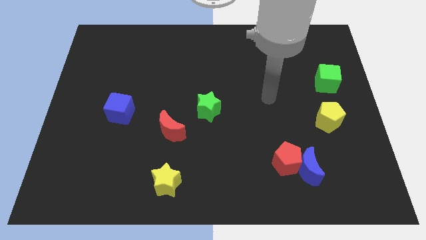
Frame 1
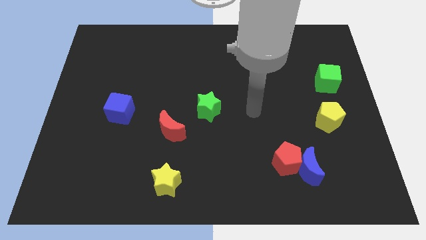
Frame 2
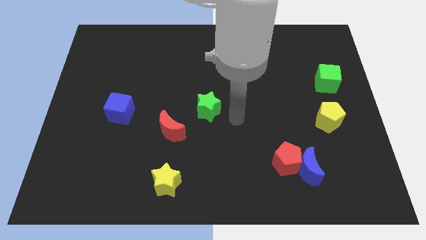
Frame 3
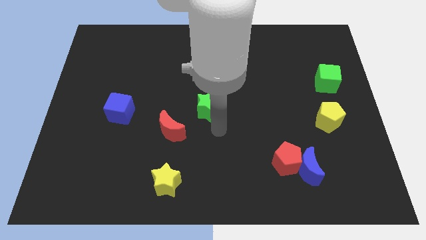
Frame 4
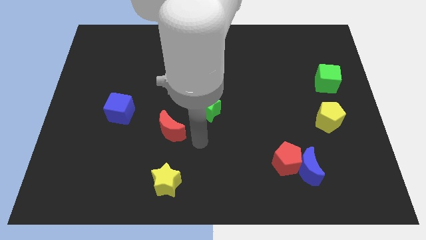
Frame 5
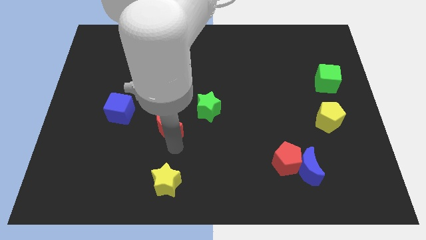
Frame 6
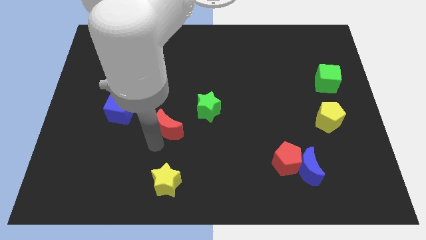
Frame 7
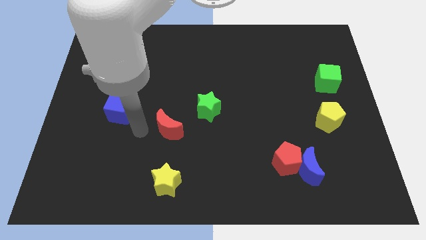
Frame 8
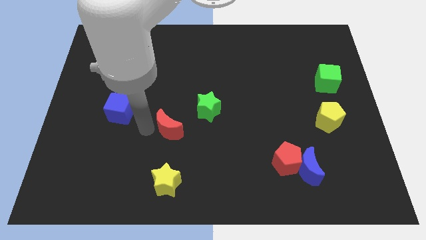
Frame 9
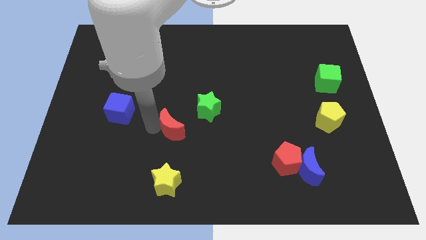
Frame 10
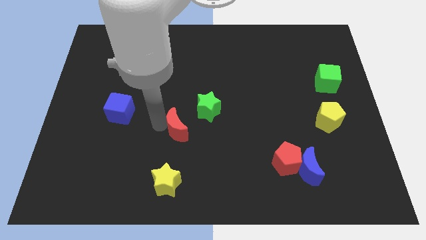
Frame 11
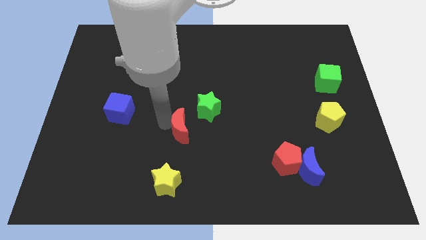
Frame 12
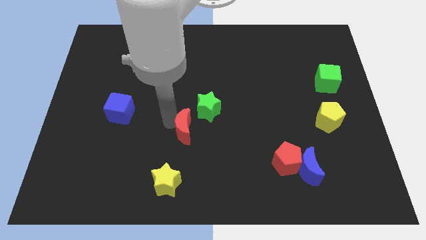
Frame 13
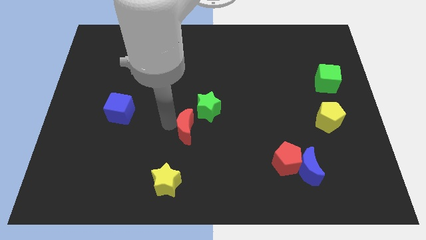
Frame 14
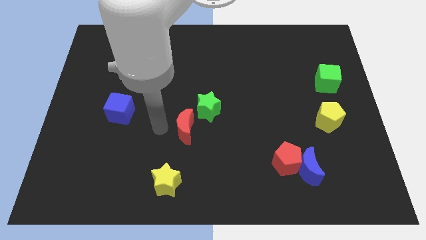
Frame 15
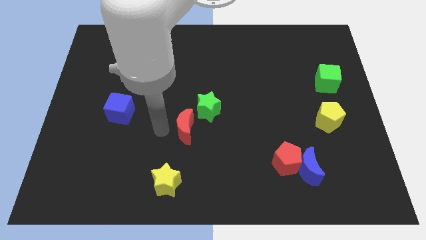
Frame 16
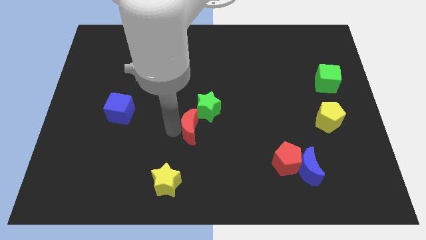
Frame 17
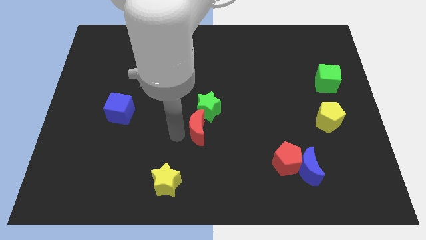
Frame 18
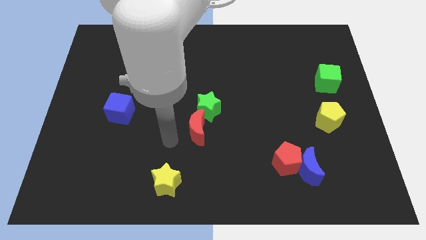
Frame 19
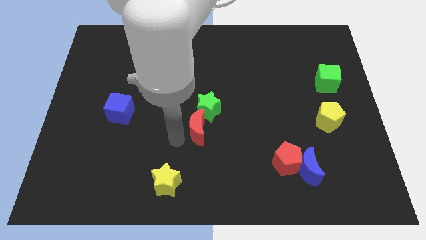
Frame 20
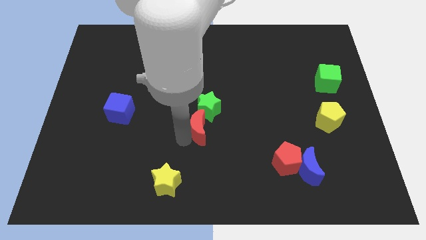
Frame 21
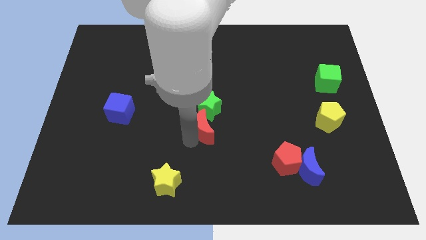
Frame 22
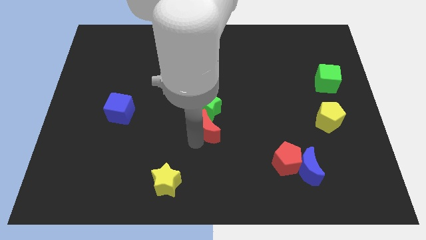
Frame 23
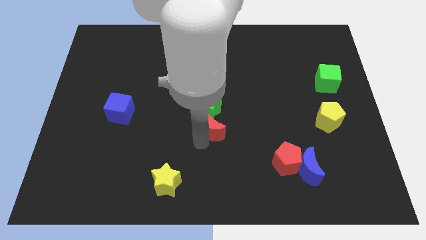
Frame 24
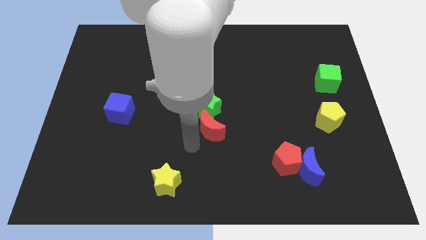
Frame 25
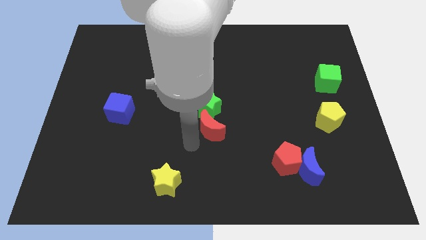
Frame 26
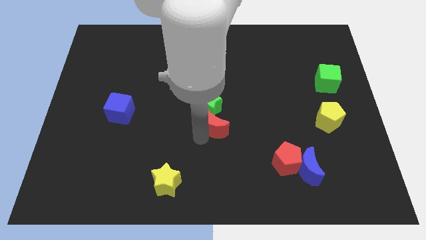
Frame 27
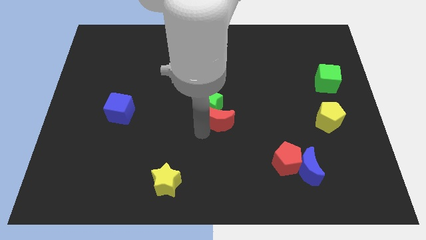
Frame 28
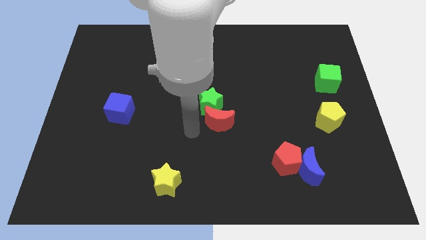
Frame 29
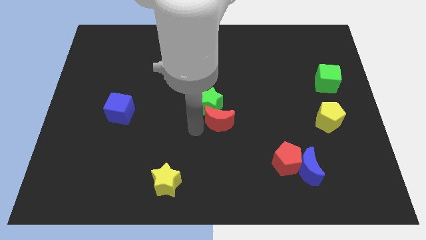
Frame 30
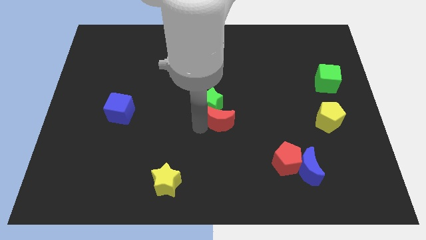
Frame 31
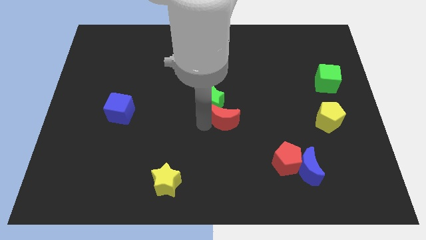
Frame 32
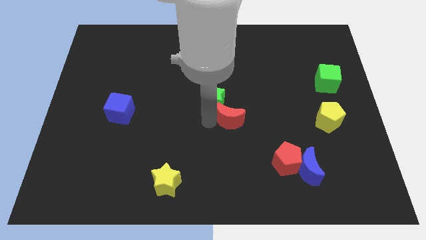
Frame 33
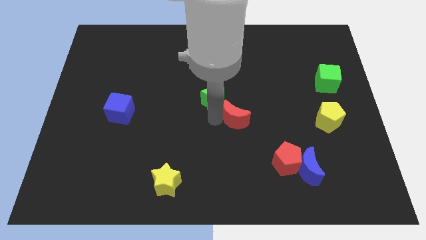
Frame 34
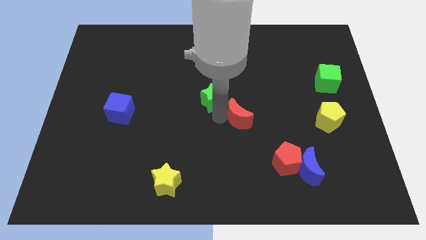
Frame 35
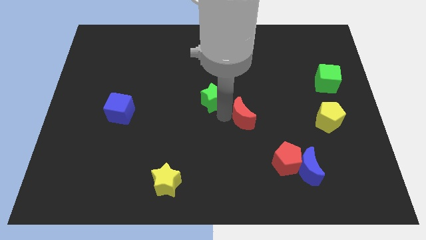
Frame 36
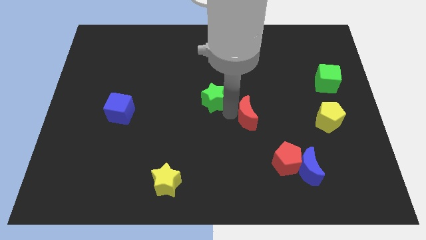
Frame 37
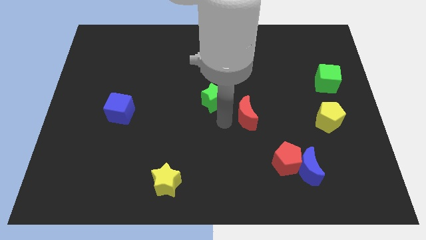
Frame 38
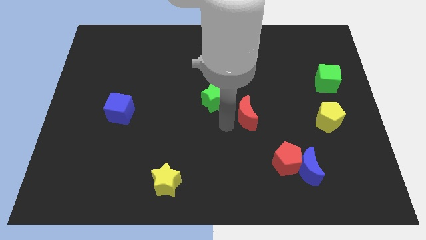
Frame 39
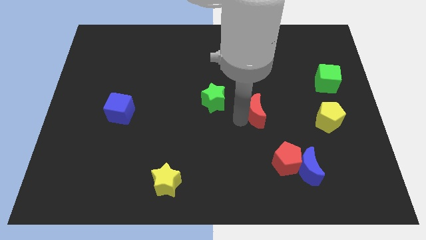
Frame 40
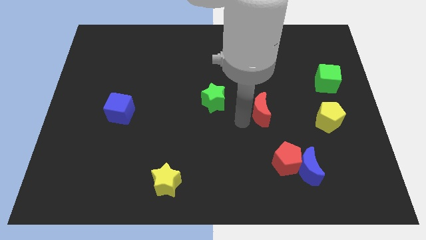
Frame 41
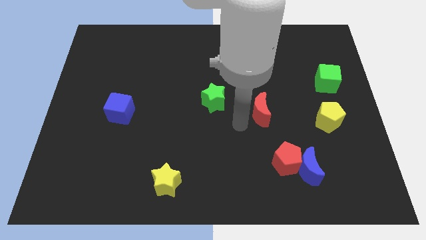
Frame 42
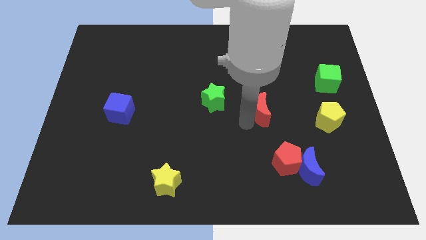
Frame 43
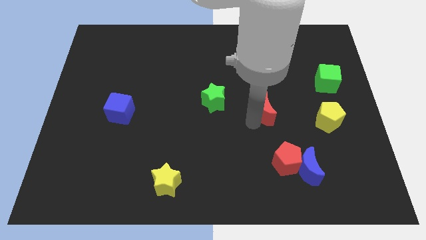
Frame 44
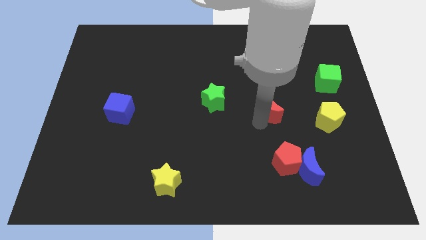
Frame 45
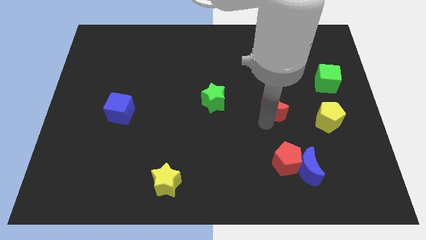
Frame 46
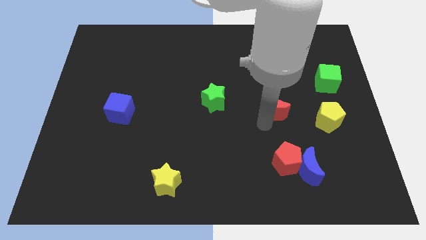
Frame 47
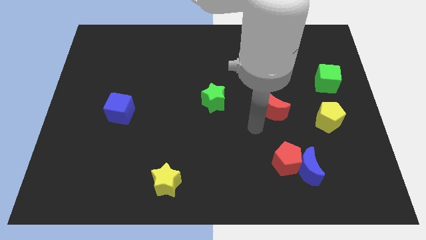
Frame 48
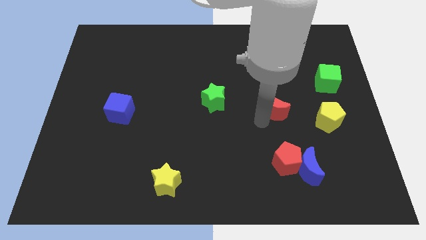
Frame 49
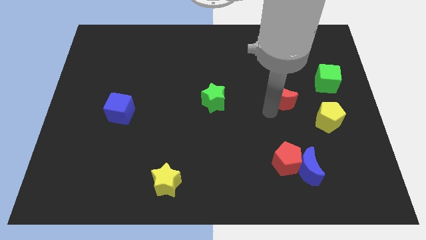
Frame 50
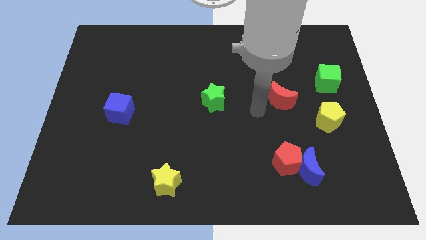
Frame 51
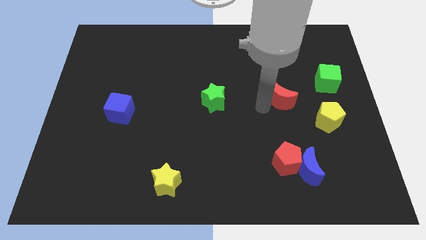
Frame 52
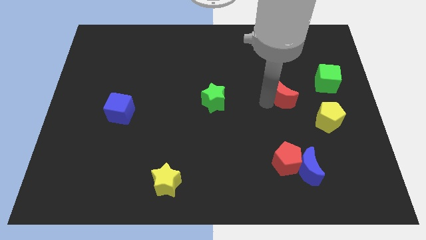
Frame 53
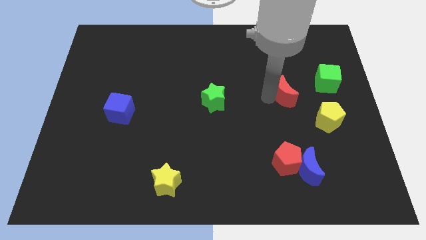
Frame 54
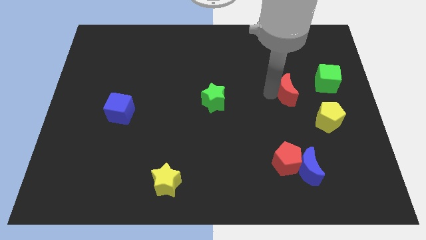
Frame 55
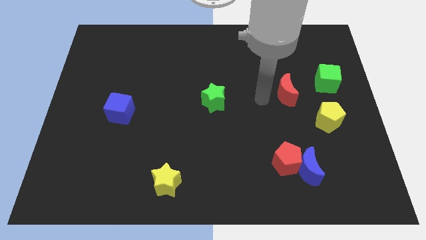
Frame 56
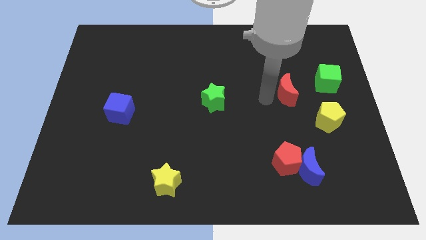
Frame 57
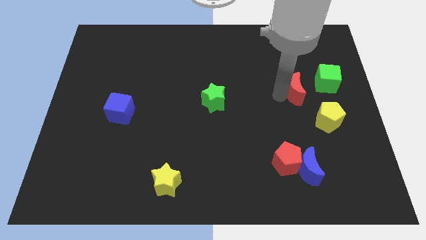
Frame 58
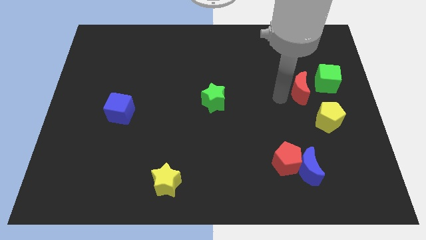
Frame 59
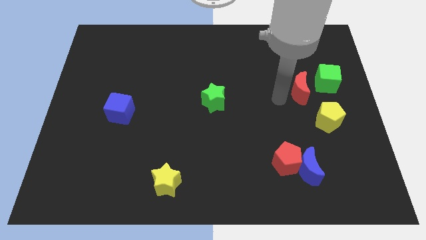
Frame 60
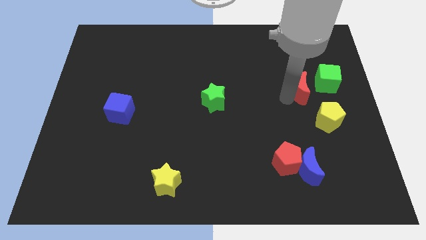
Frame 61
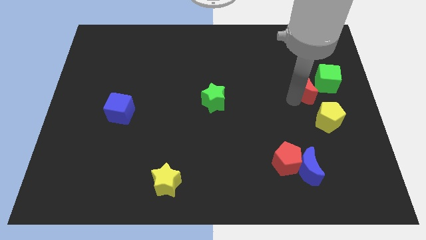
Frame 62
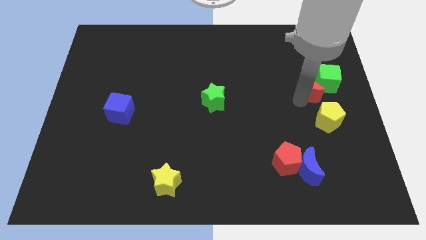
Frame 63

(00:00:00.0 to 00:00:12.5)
push the red moon close to the green cube

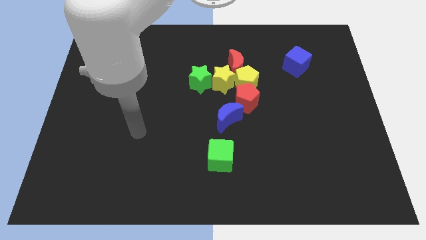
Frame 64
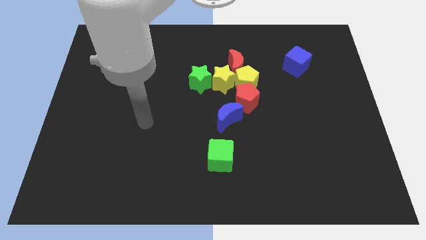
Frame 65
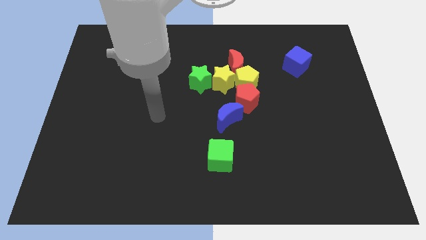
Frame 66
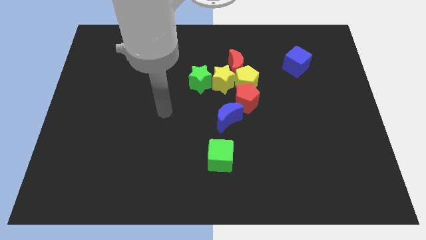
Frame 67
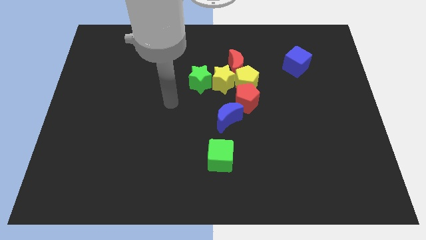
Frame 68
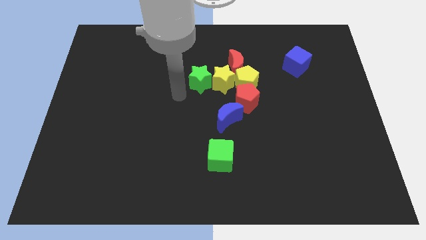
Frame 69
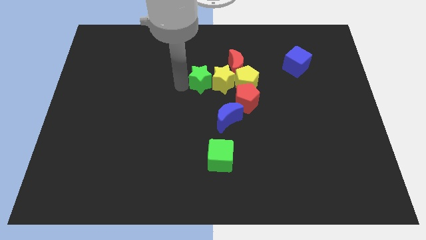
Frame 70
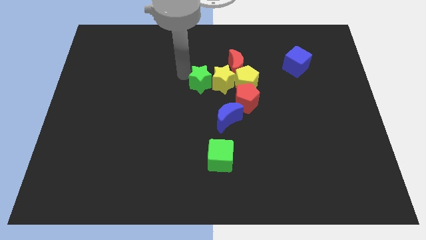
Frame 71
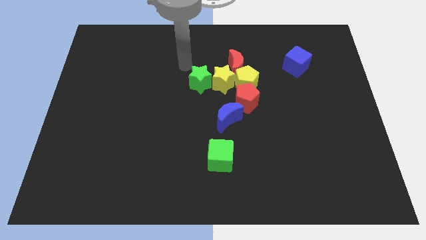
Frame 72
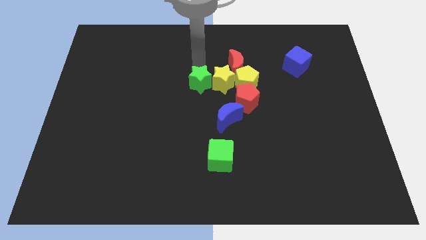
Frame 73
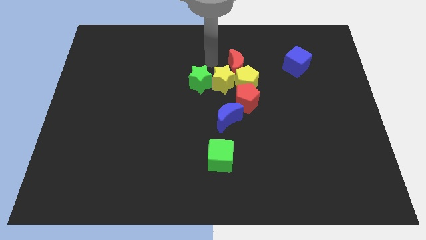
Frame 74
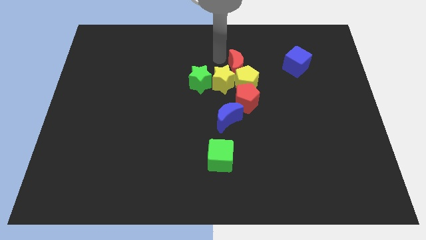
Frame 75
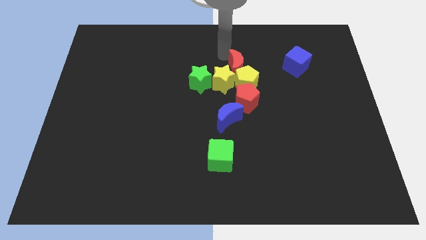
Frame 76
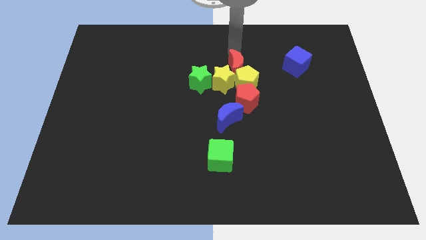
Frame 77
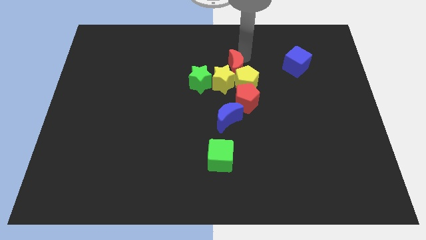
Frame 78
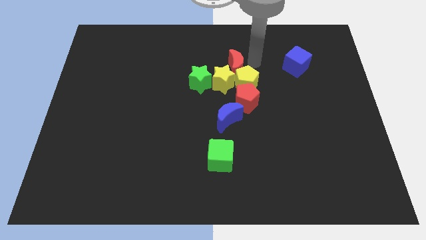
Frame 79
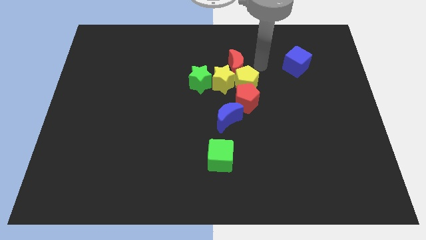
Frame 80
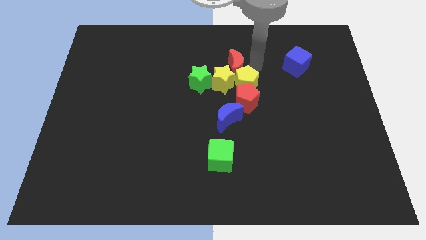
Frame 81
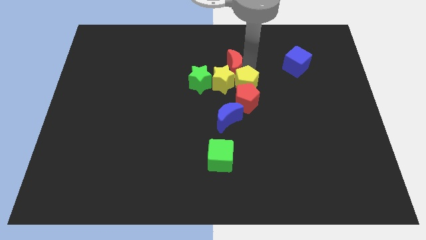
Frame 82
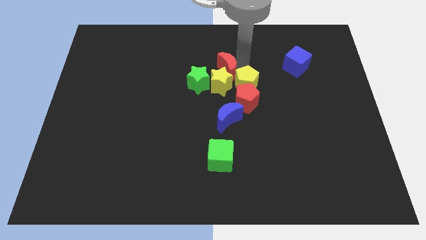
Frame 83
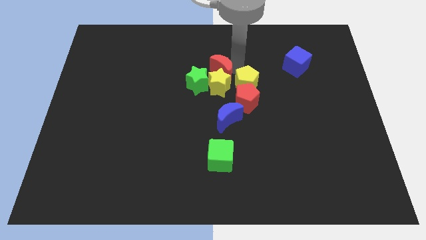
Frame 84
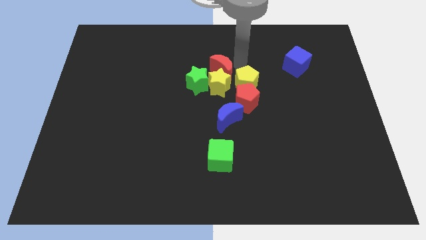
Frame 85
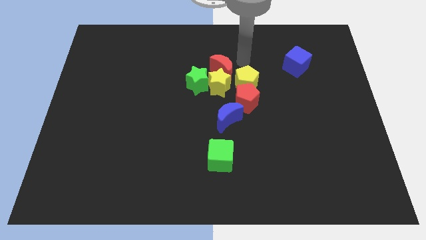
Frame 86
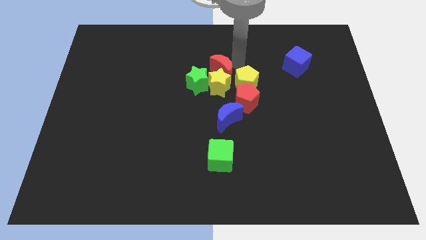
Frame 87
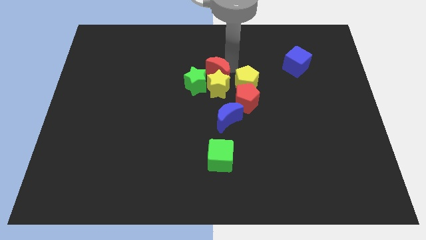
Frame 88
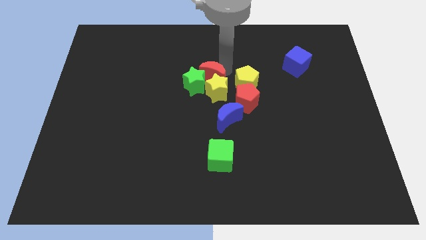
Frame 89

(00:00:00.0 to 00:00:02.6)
push the red moon close to the green star
